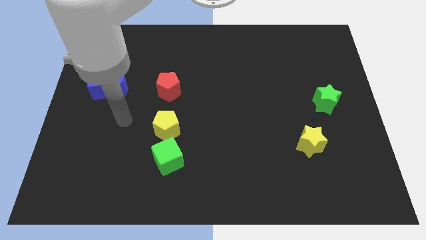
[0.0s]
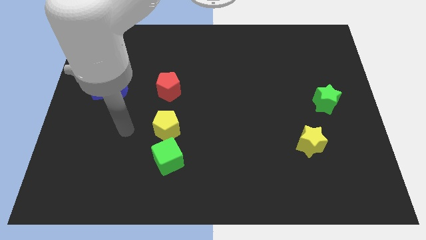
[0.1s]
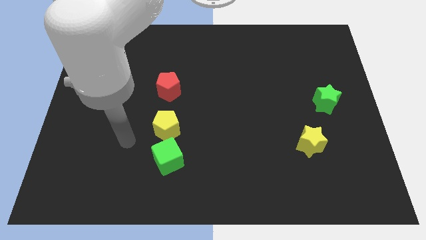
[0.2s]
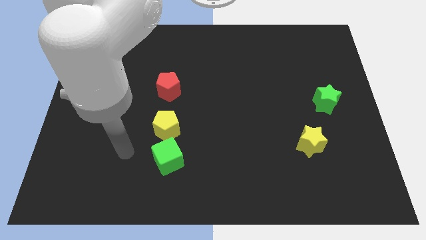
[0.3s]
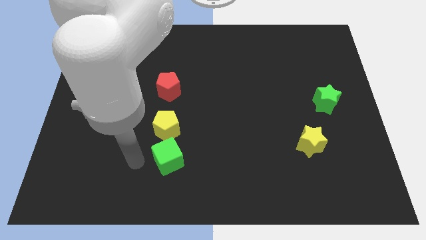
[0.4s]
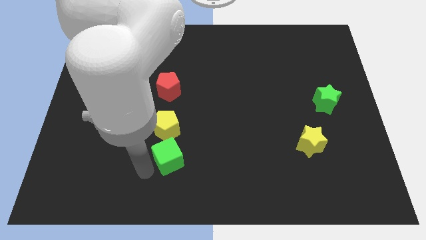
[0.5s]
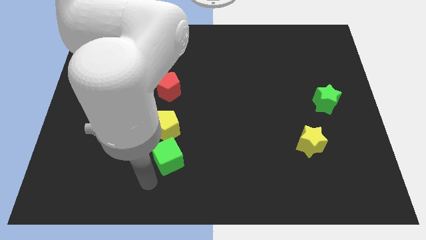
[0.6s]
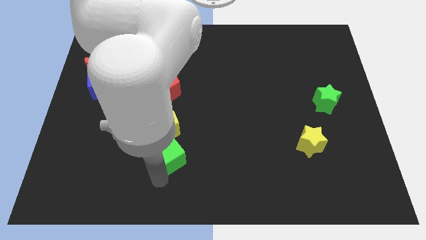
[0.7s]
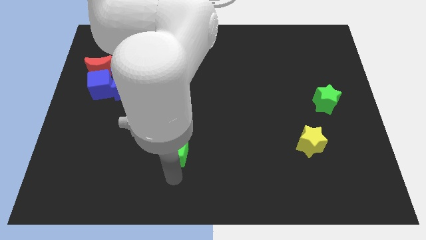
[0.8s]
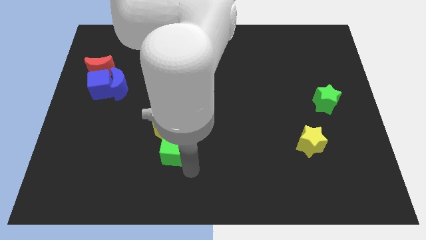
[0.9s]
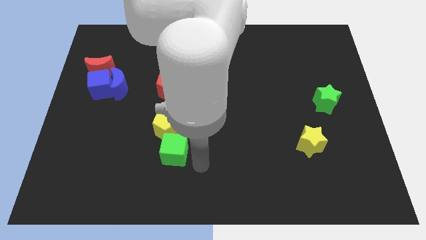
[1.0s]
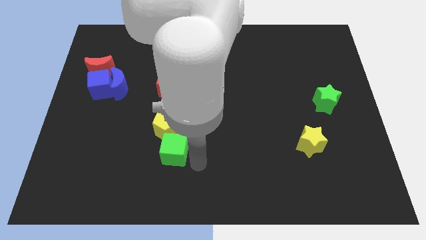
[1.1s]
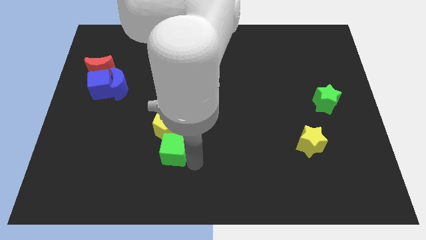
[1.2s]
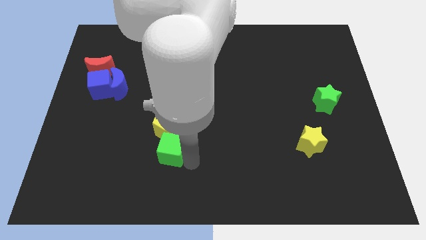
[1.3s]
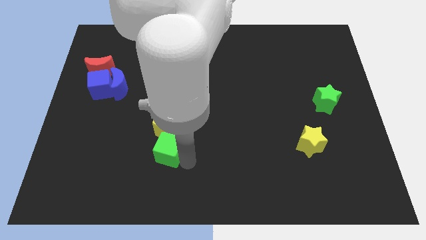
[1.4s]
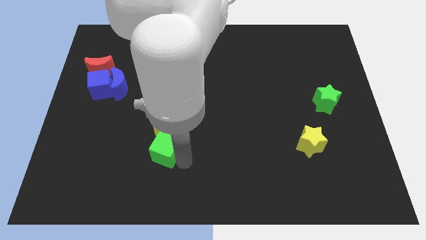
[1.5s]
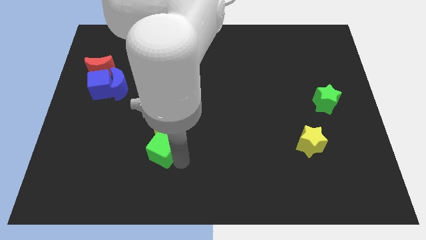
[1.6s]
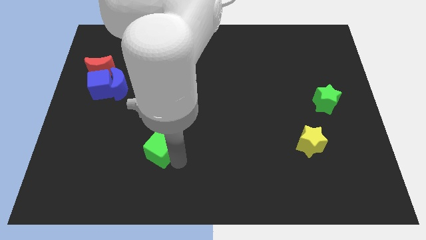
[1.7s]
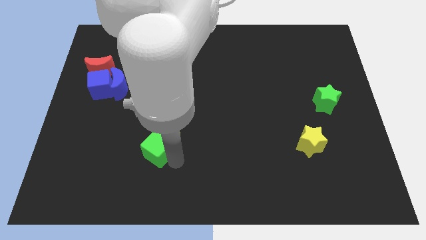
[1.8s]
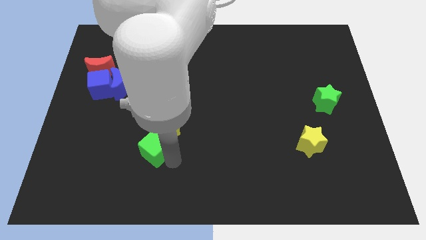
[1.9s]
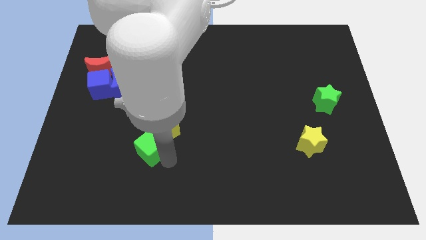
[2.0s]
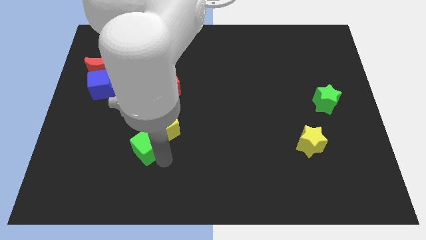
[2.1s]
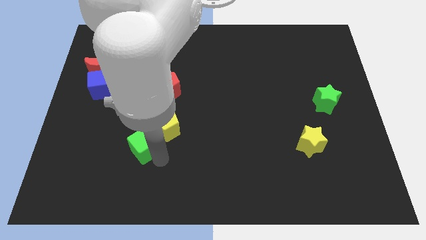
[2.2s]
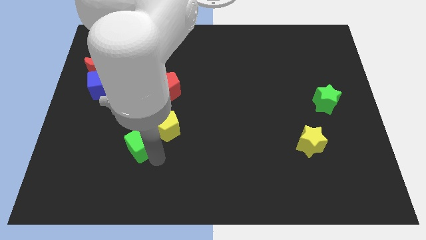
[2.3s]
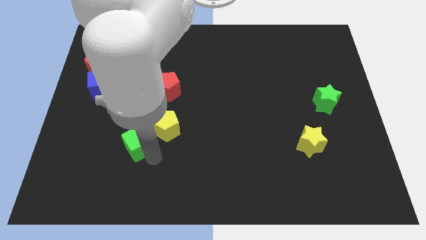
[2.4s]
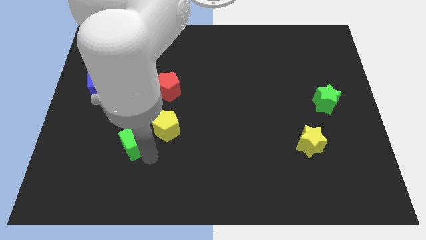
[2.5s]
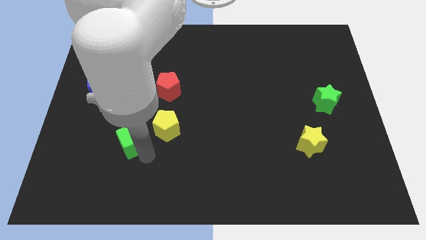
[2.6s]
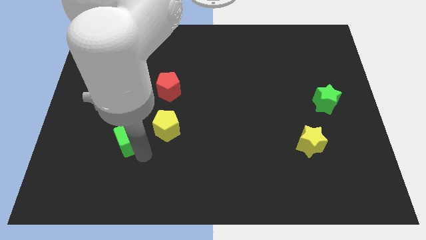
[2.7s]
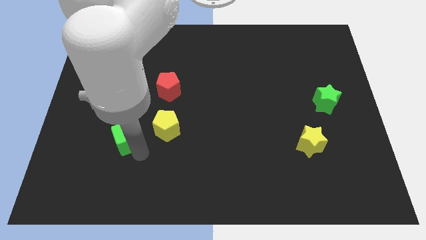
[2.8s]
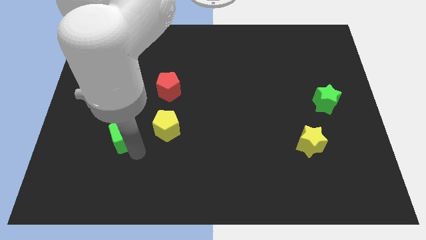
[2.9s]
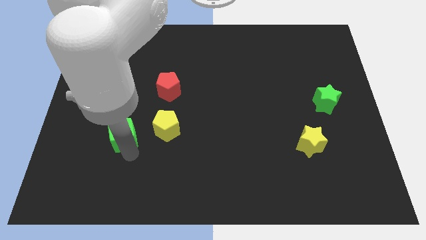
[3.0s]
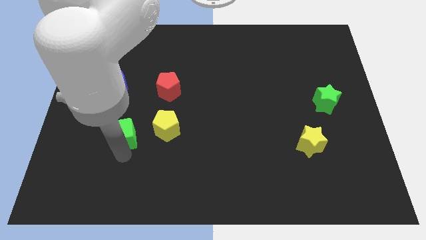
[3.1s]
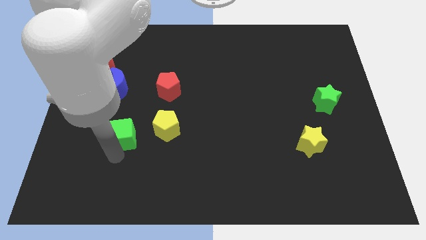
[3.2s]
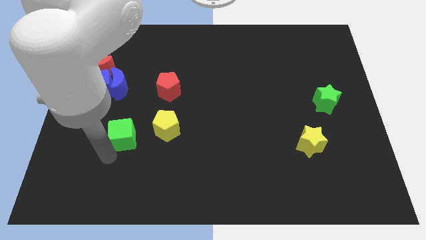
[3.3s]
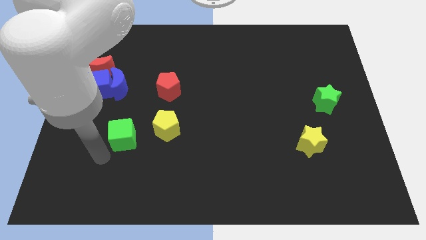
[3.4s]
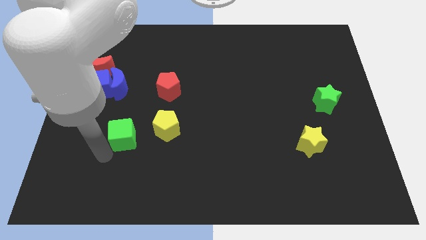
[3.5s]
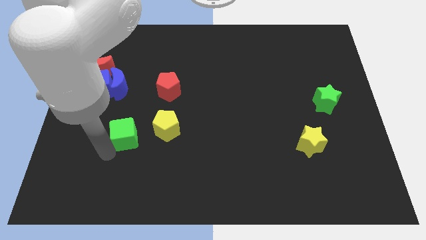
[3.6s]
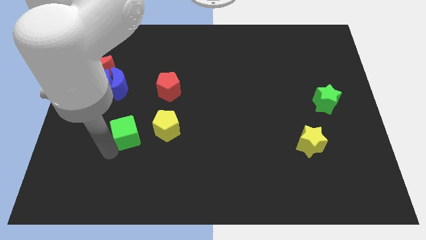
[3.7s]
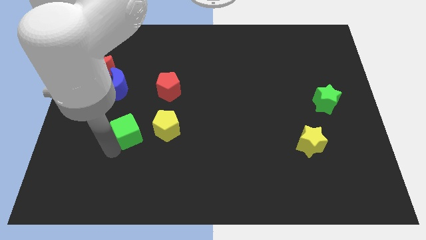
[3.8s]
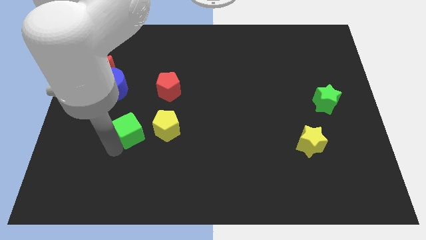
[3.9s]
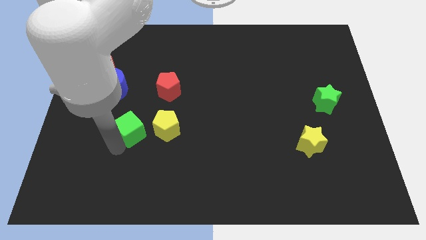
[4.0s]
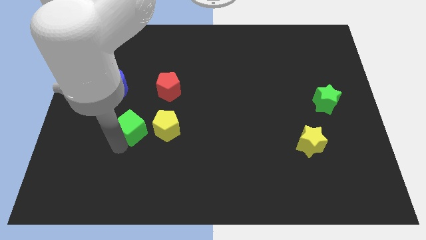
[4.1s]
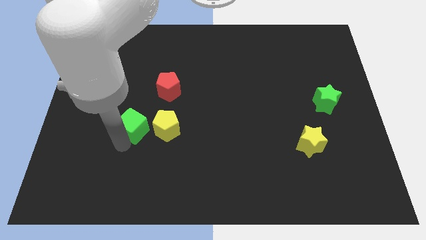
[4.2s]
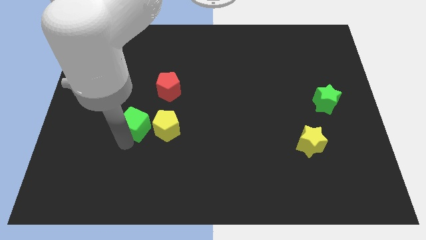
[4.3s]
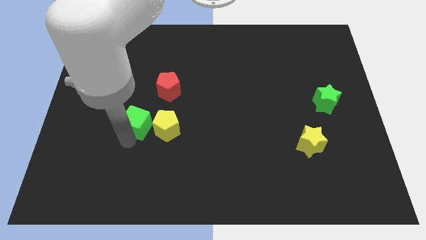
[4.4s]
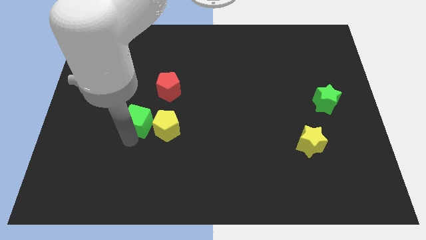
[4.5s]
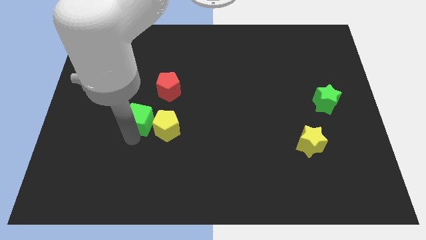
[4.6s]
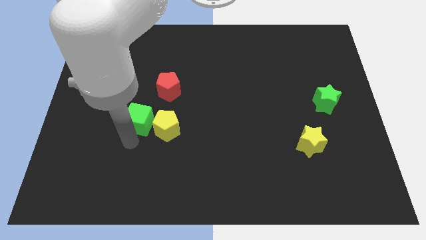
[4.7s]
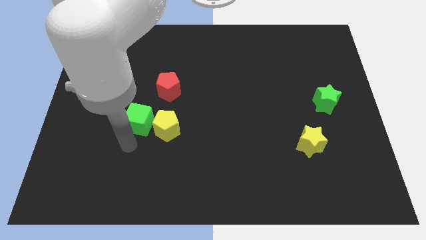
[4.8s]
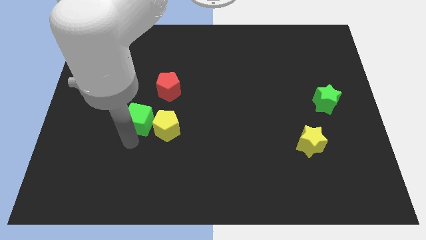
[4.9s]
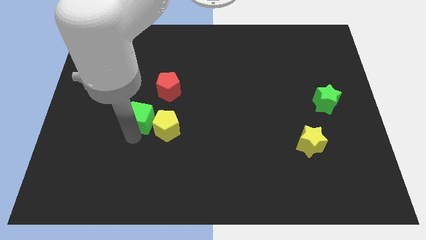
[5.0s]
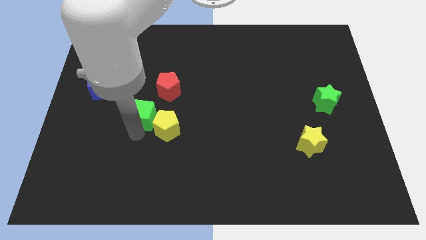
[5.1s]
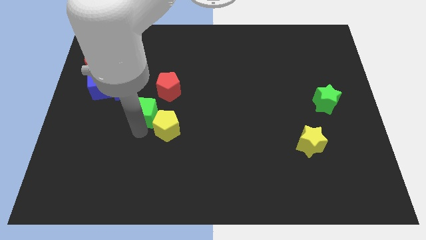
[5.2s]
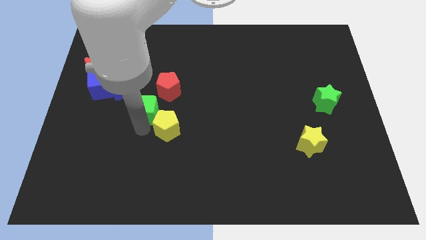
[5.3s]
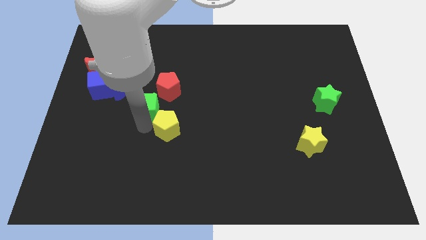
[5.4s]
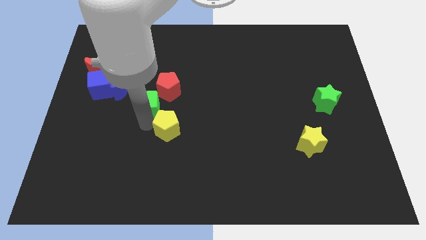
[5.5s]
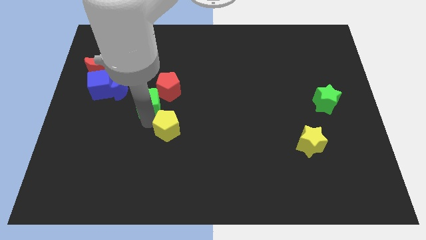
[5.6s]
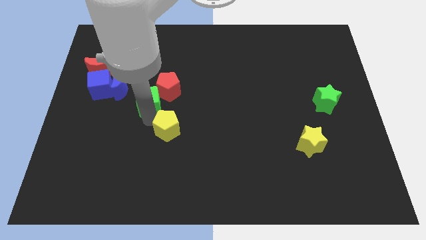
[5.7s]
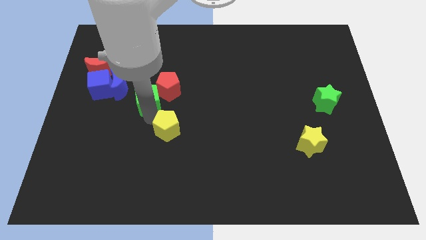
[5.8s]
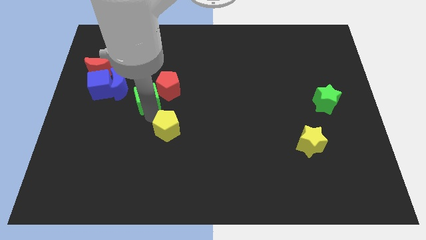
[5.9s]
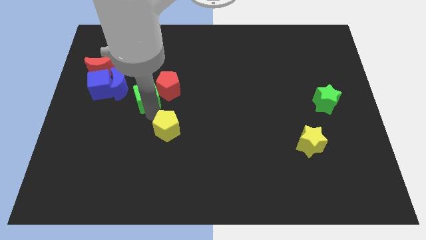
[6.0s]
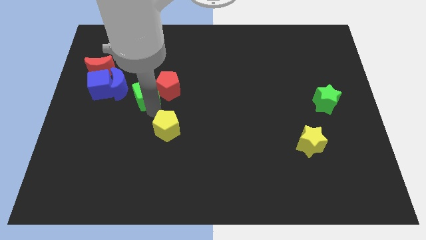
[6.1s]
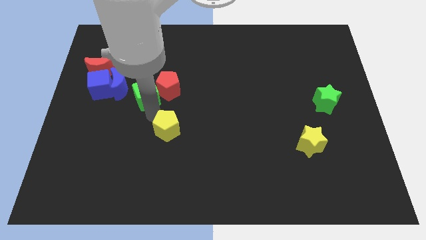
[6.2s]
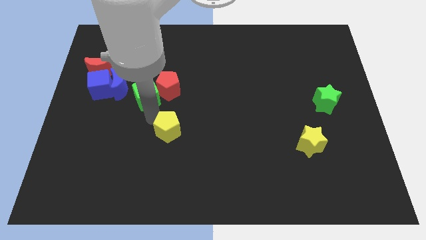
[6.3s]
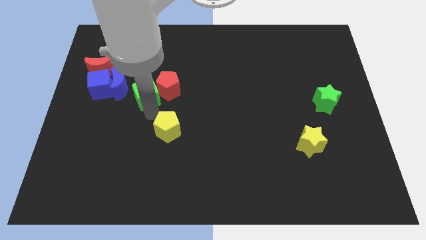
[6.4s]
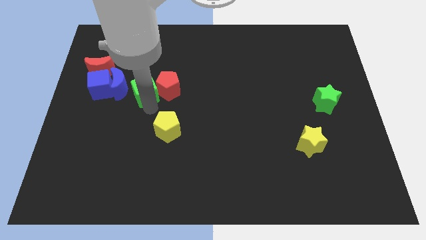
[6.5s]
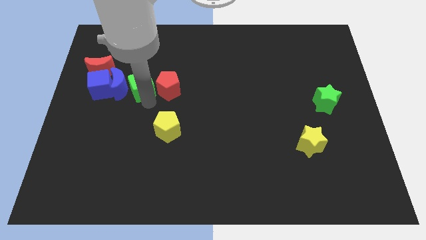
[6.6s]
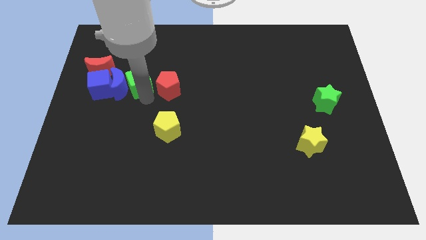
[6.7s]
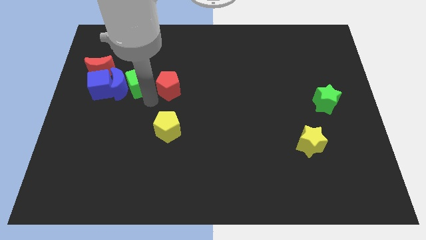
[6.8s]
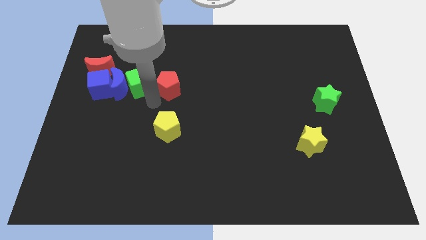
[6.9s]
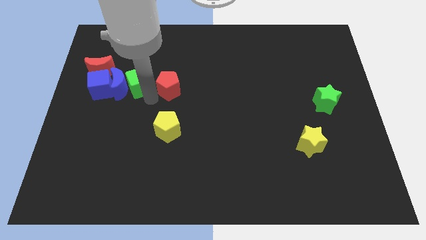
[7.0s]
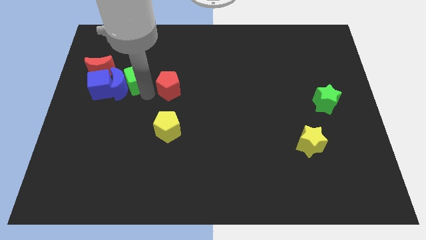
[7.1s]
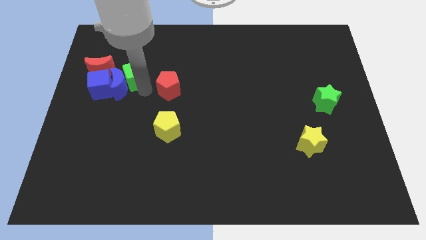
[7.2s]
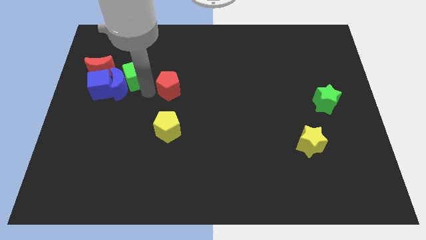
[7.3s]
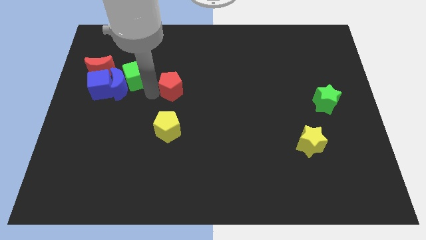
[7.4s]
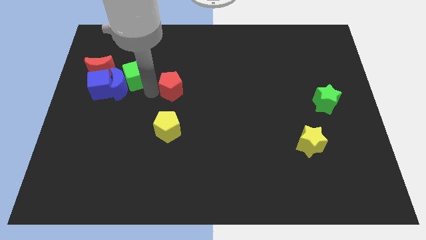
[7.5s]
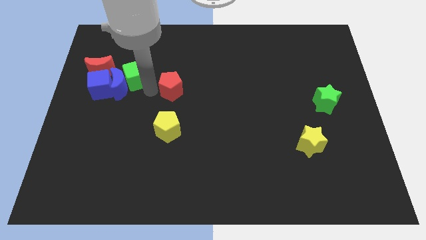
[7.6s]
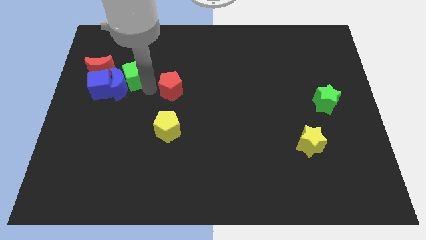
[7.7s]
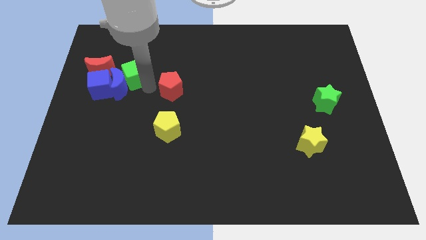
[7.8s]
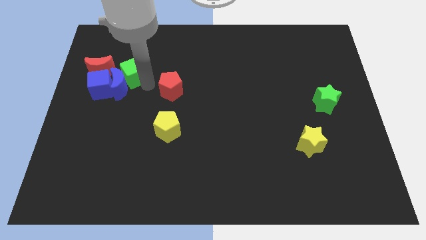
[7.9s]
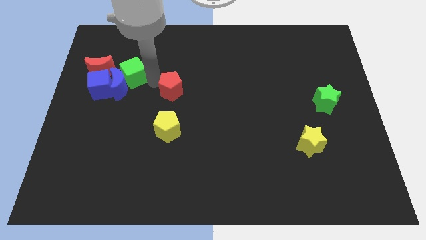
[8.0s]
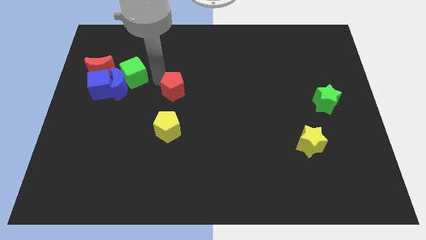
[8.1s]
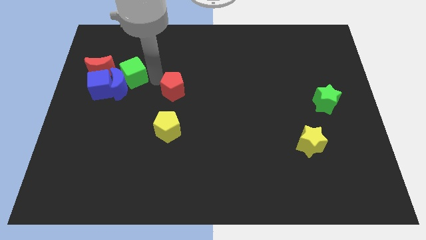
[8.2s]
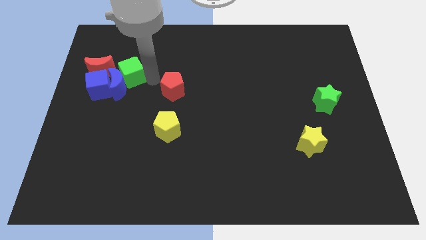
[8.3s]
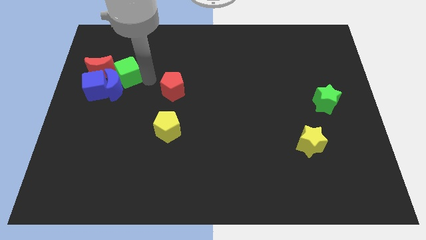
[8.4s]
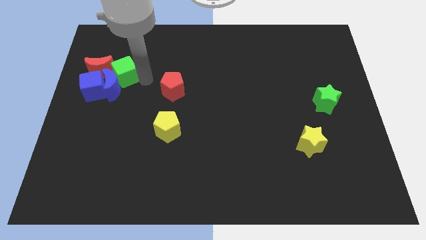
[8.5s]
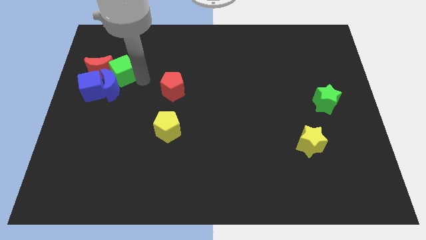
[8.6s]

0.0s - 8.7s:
put the green cube towards the red moon
